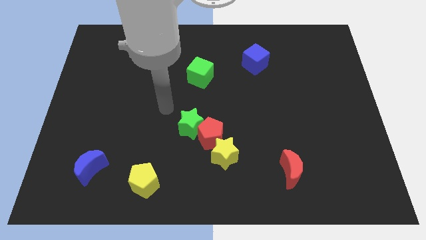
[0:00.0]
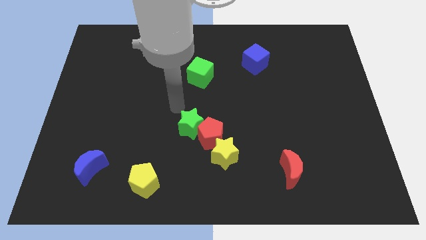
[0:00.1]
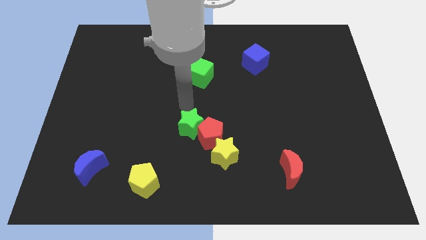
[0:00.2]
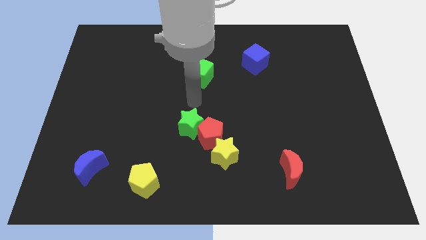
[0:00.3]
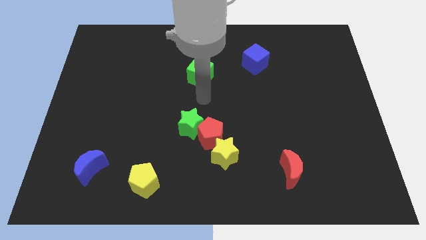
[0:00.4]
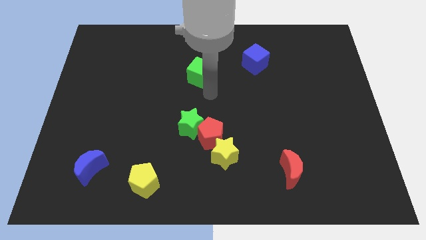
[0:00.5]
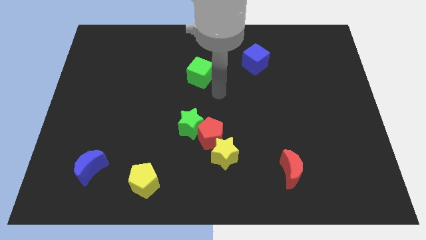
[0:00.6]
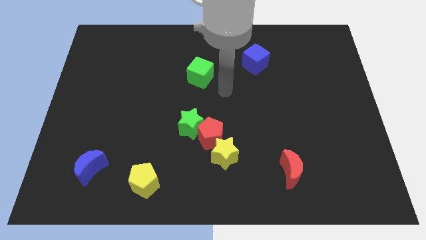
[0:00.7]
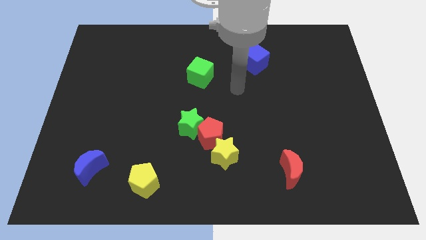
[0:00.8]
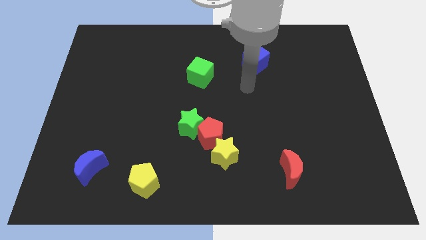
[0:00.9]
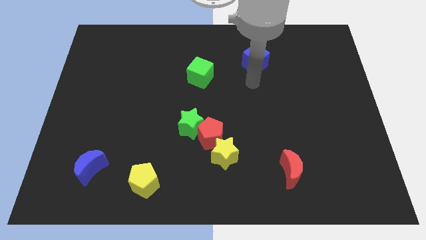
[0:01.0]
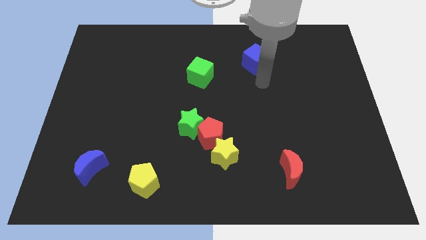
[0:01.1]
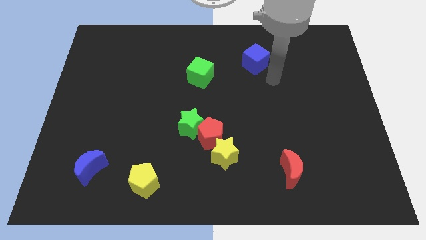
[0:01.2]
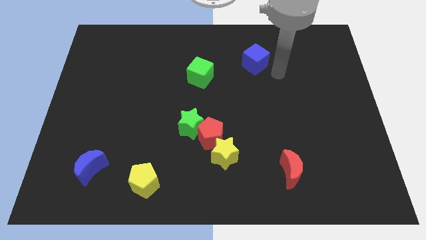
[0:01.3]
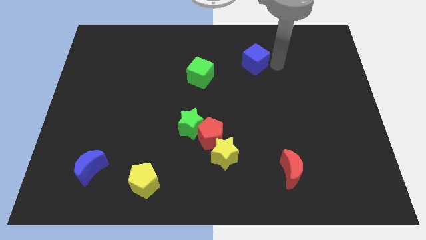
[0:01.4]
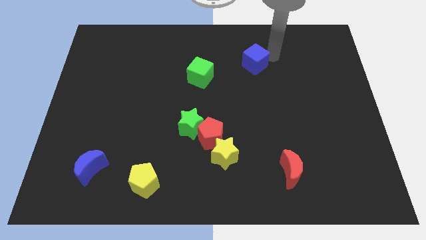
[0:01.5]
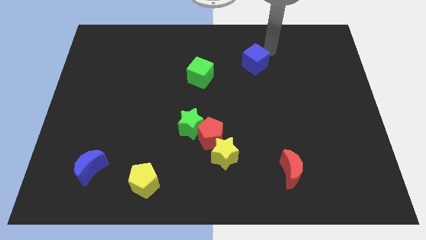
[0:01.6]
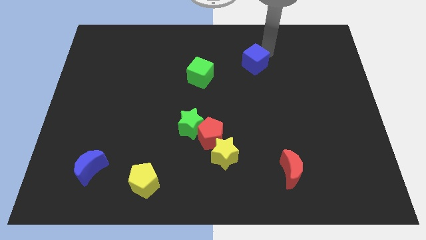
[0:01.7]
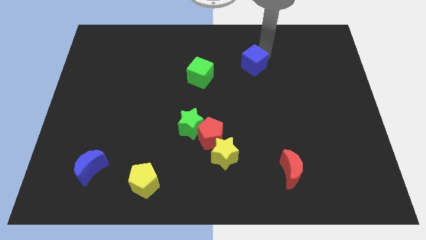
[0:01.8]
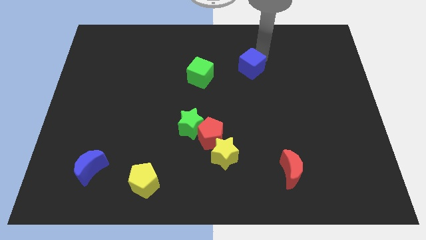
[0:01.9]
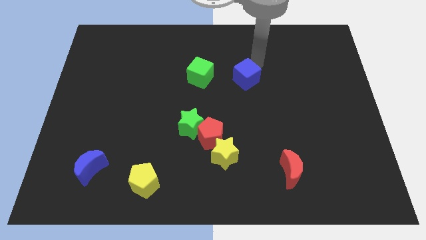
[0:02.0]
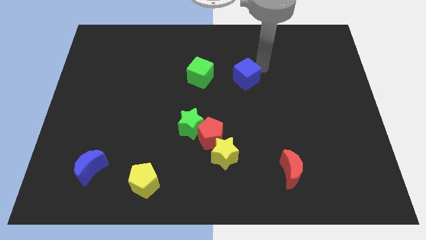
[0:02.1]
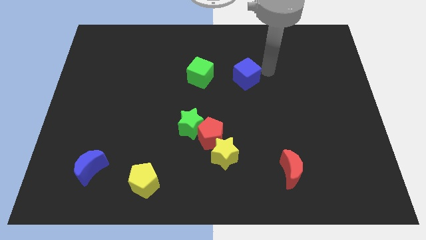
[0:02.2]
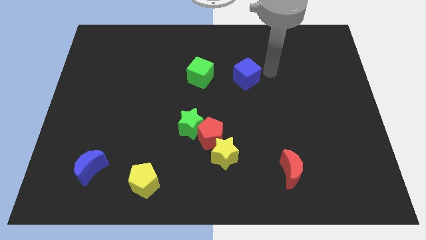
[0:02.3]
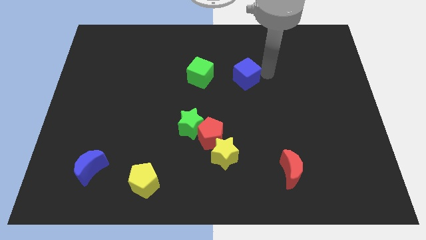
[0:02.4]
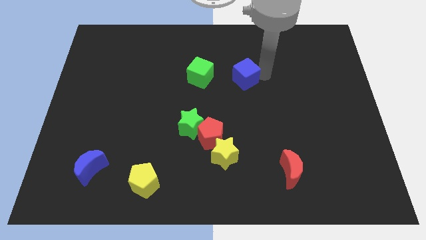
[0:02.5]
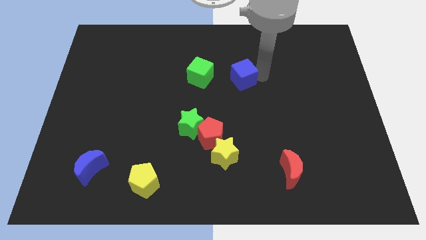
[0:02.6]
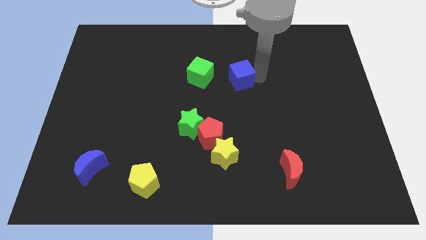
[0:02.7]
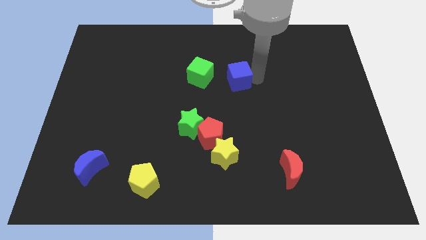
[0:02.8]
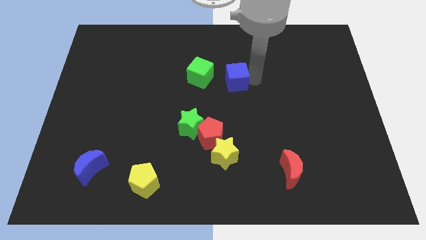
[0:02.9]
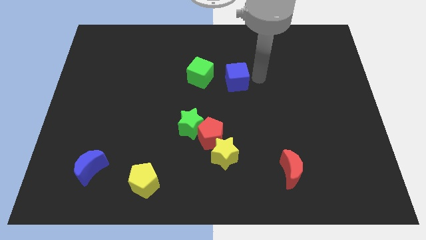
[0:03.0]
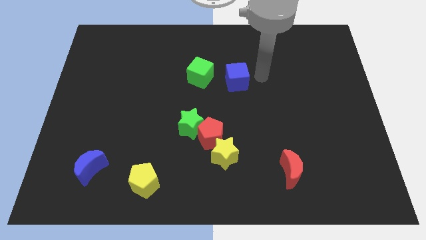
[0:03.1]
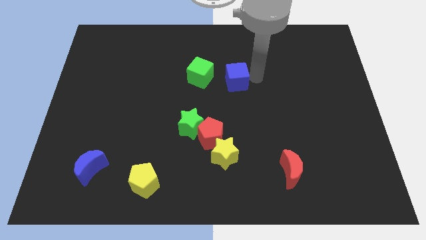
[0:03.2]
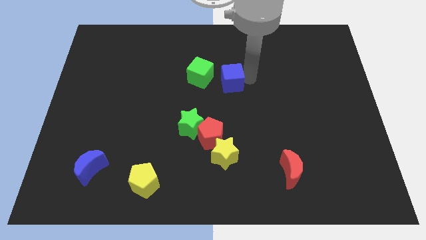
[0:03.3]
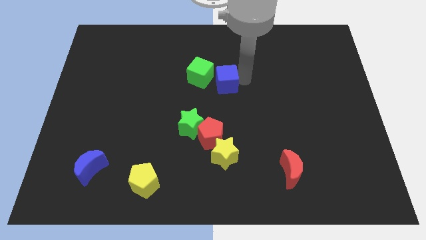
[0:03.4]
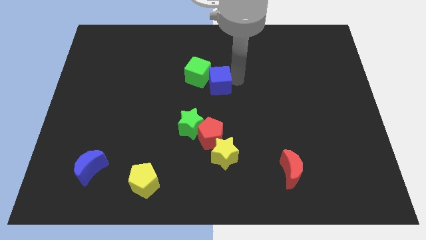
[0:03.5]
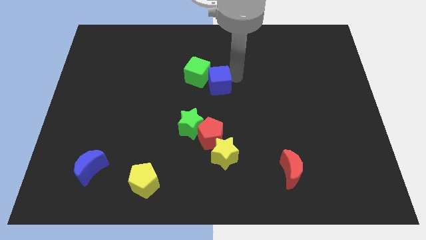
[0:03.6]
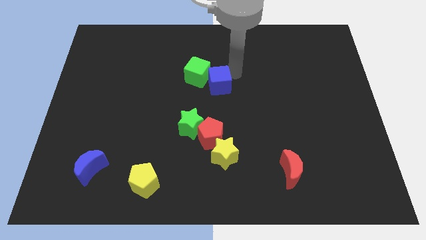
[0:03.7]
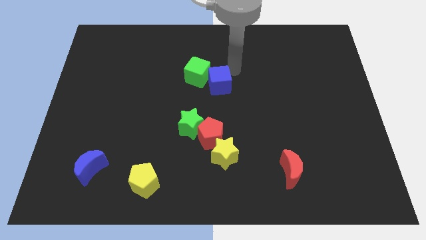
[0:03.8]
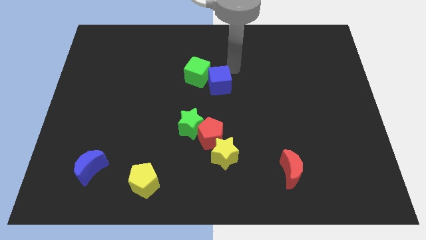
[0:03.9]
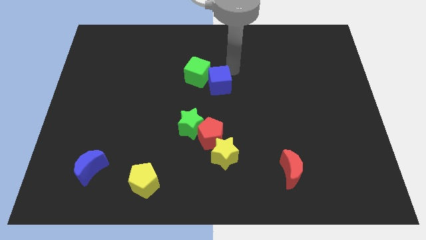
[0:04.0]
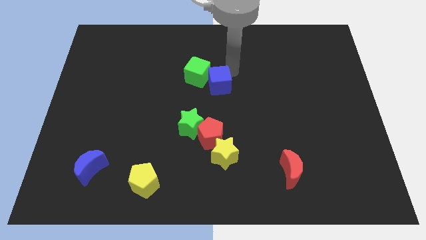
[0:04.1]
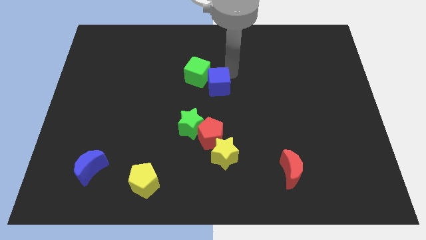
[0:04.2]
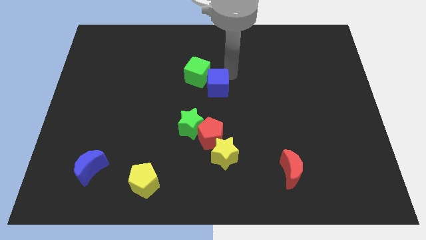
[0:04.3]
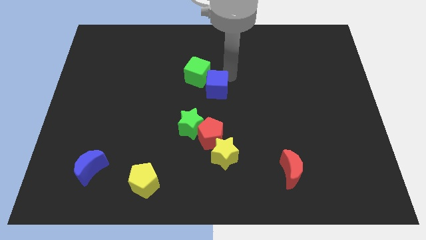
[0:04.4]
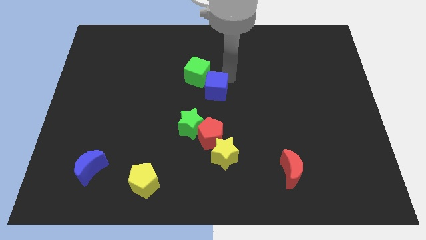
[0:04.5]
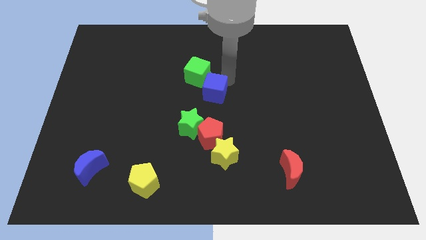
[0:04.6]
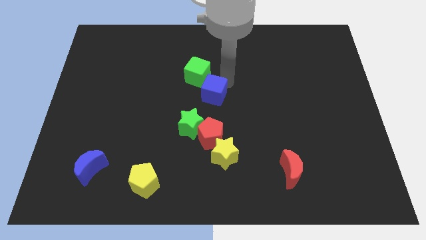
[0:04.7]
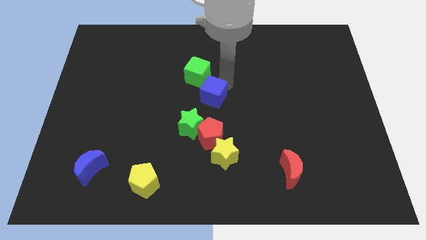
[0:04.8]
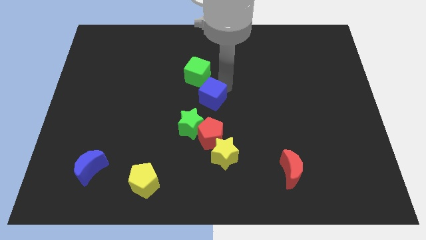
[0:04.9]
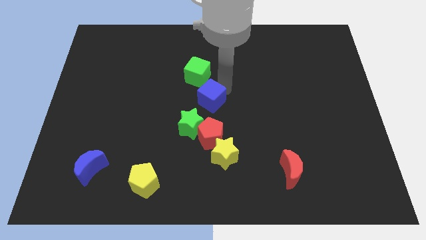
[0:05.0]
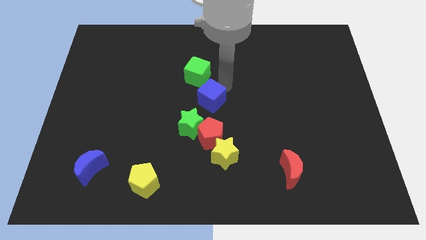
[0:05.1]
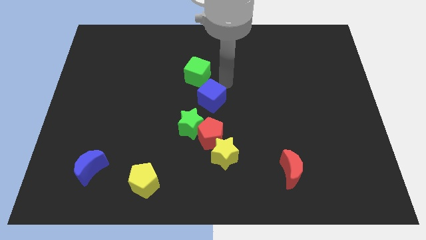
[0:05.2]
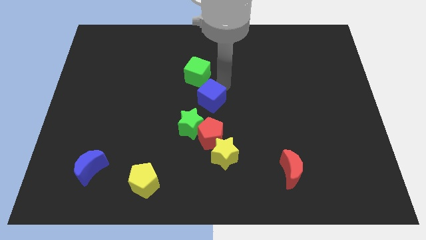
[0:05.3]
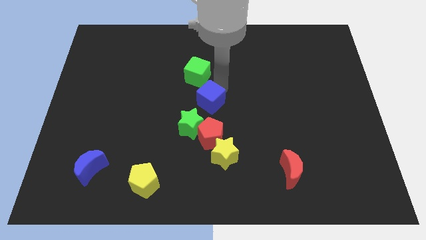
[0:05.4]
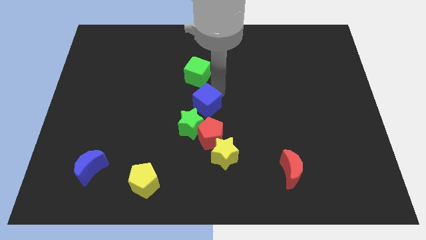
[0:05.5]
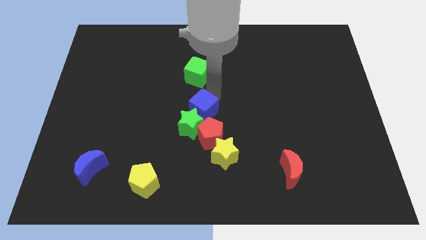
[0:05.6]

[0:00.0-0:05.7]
push the blue cube towards the green star

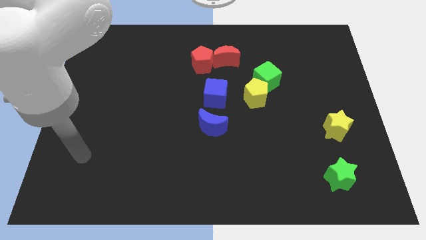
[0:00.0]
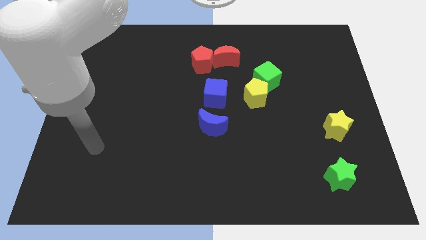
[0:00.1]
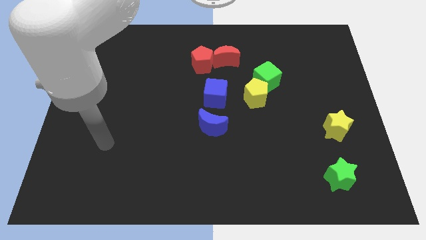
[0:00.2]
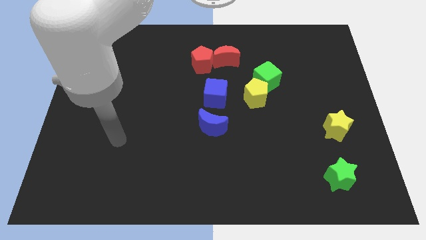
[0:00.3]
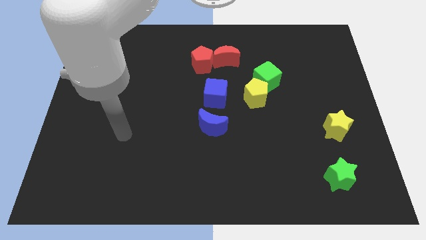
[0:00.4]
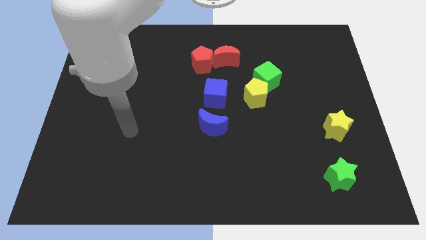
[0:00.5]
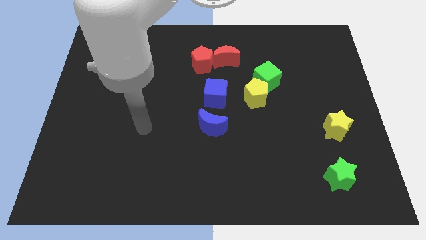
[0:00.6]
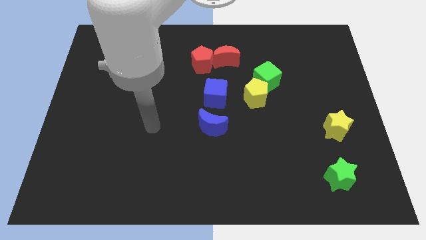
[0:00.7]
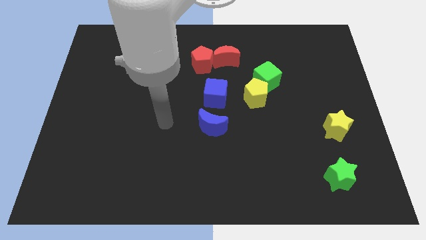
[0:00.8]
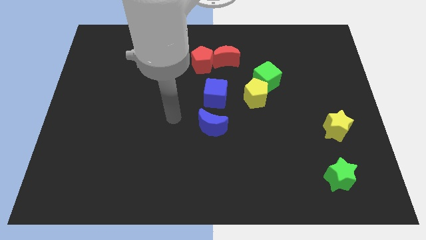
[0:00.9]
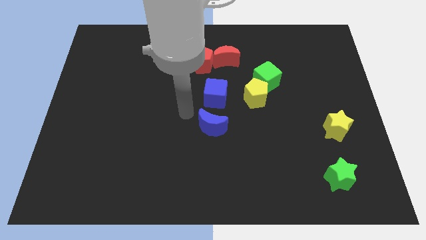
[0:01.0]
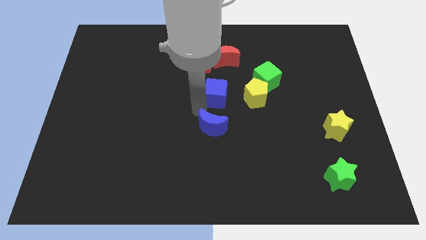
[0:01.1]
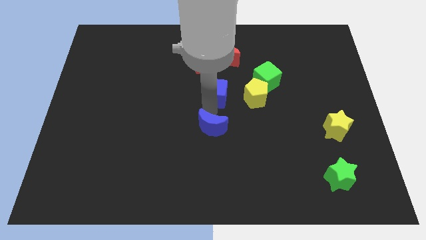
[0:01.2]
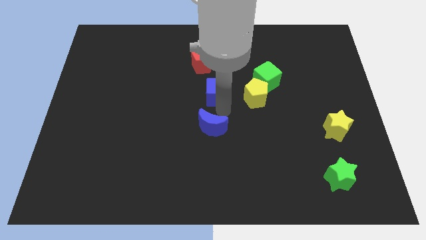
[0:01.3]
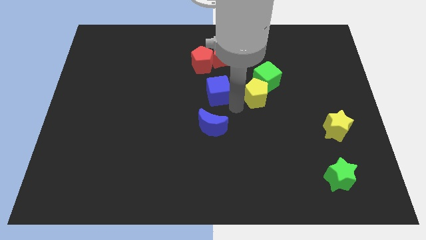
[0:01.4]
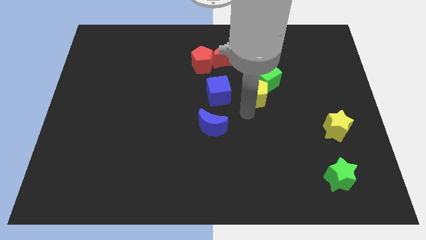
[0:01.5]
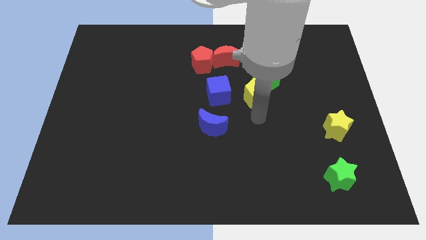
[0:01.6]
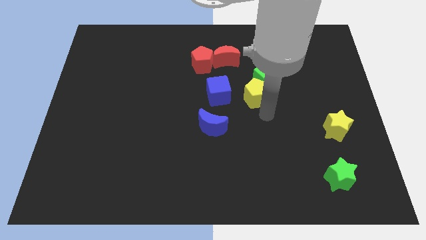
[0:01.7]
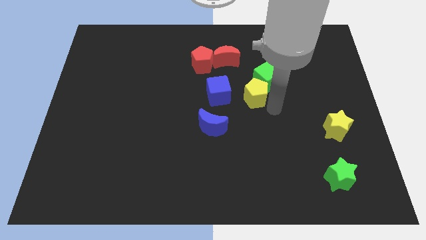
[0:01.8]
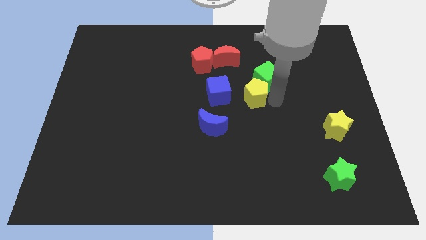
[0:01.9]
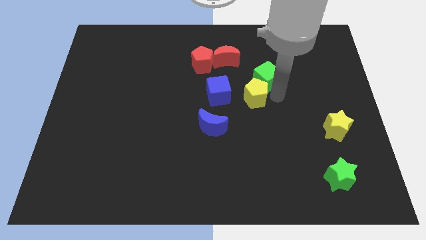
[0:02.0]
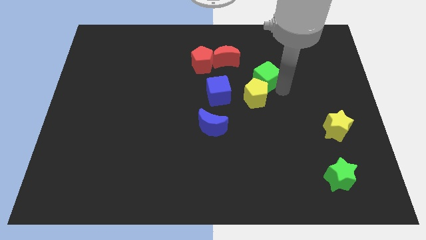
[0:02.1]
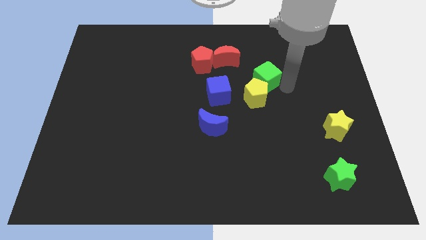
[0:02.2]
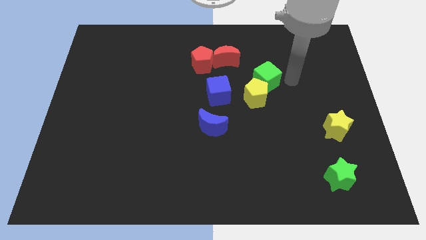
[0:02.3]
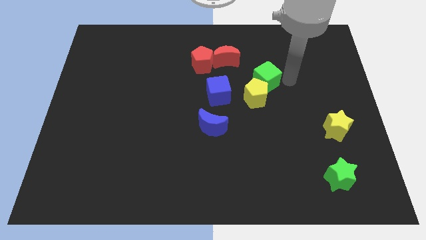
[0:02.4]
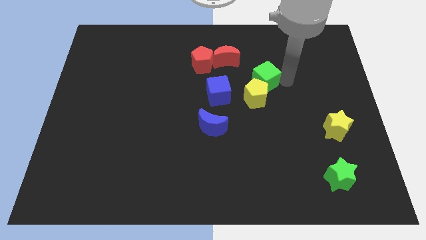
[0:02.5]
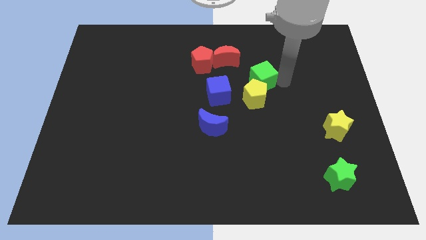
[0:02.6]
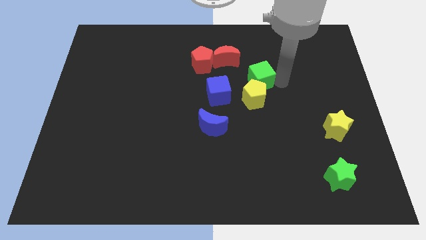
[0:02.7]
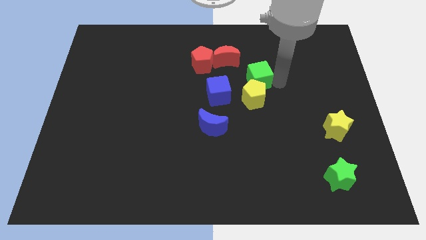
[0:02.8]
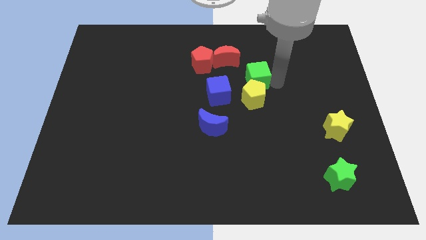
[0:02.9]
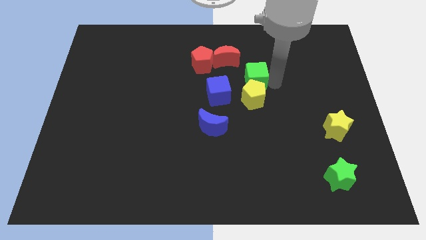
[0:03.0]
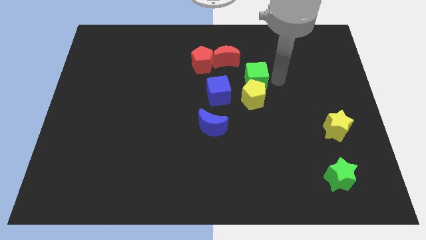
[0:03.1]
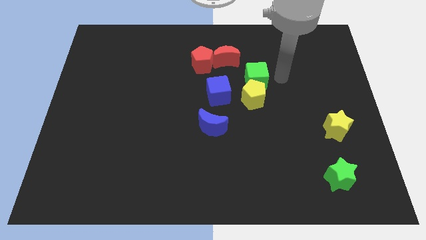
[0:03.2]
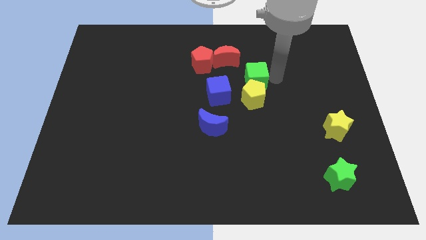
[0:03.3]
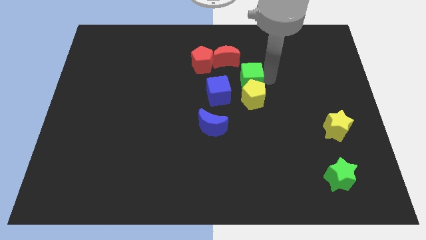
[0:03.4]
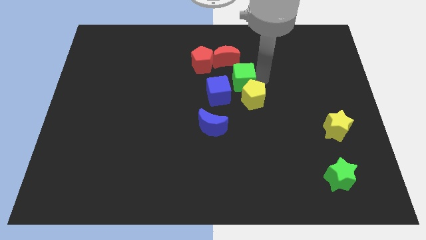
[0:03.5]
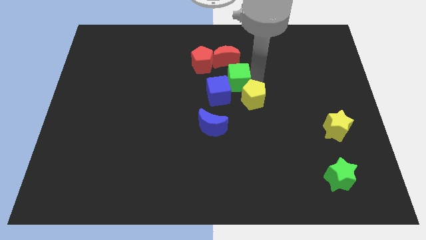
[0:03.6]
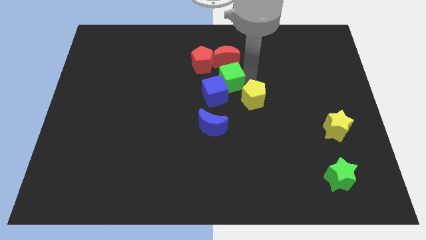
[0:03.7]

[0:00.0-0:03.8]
move the green cube towards the blue cube
